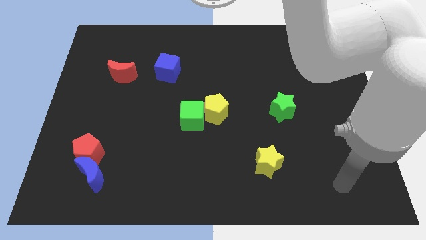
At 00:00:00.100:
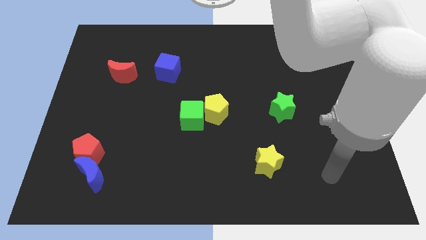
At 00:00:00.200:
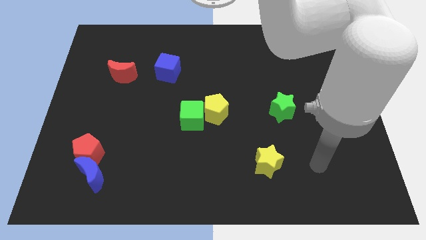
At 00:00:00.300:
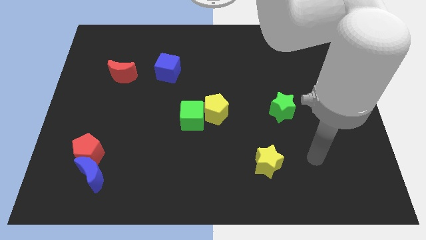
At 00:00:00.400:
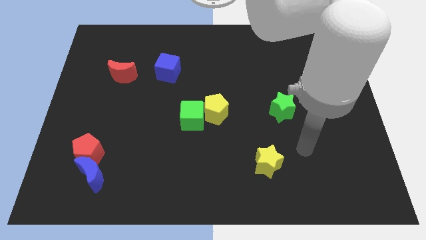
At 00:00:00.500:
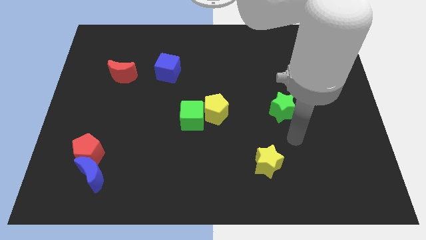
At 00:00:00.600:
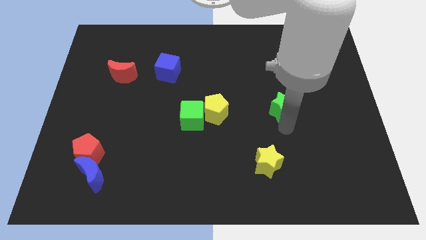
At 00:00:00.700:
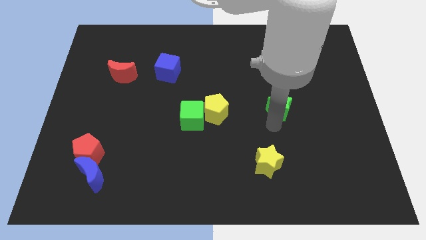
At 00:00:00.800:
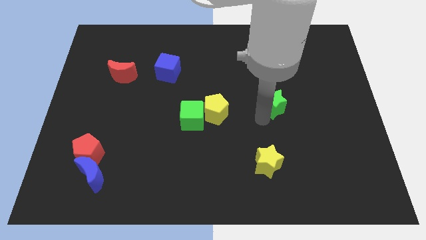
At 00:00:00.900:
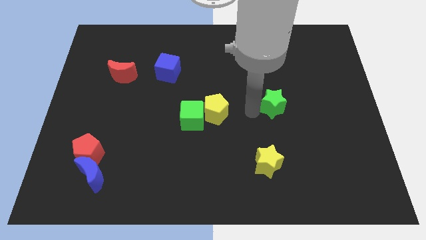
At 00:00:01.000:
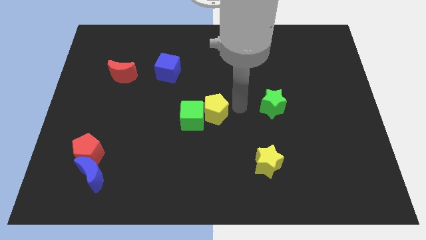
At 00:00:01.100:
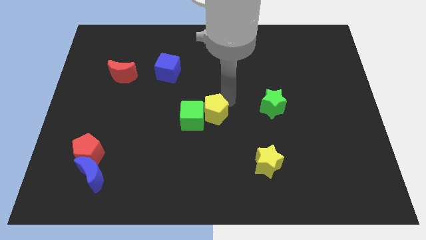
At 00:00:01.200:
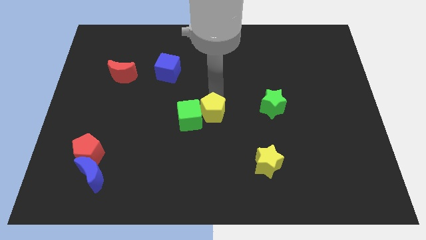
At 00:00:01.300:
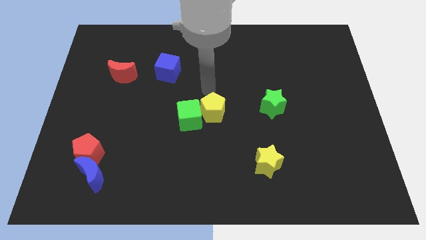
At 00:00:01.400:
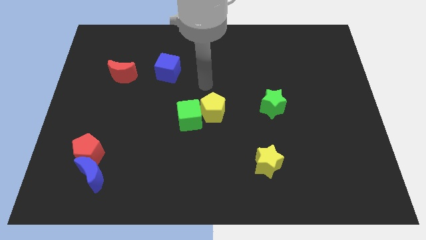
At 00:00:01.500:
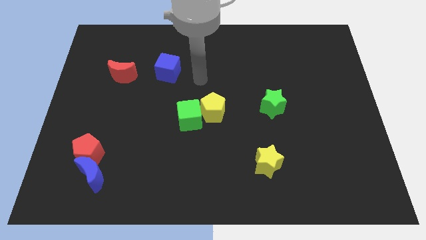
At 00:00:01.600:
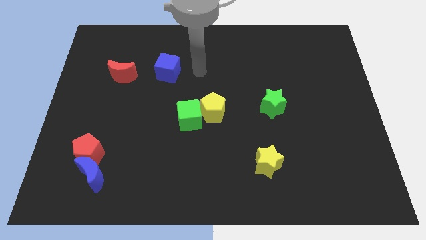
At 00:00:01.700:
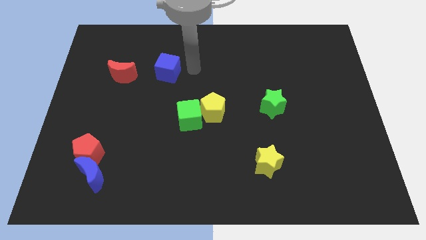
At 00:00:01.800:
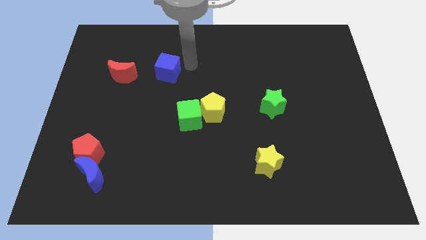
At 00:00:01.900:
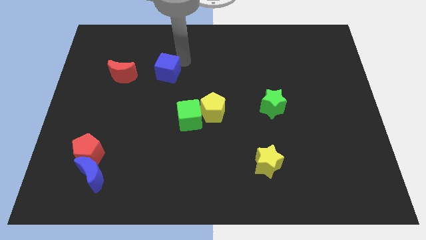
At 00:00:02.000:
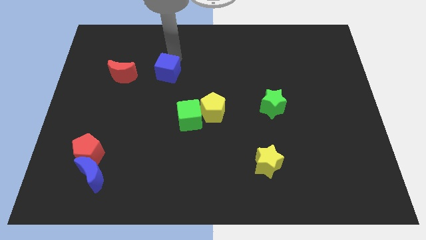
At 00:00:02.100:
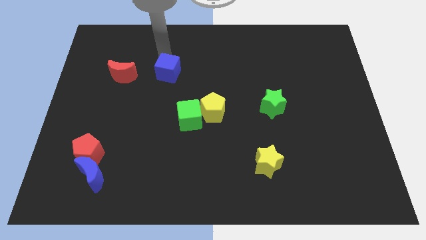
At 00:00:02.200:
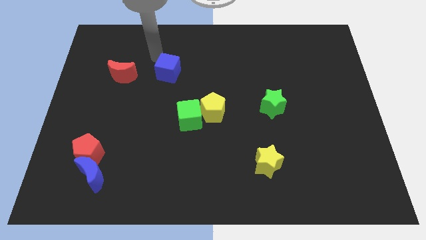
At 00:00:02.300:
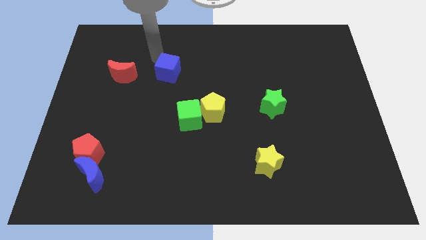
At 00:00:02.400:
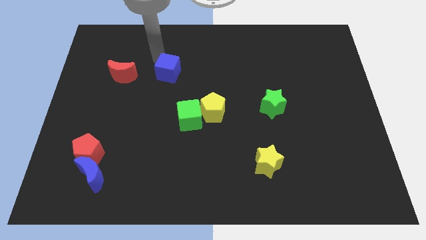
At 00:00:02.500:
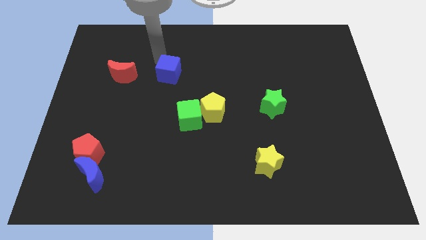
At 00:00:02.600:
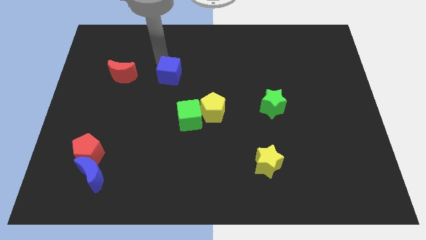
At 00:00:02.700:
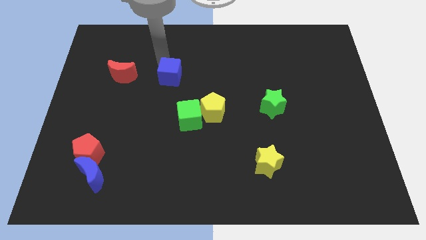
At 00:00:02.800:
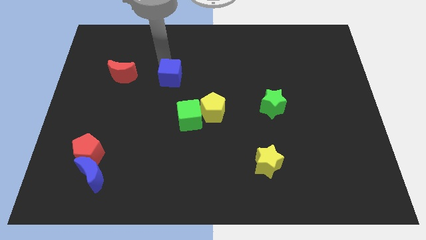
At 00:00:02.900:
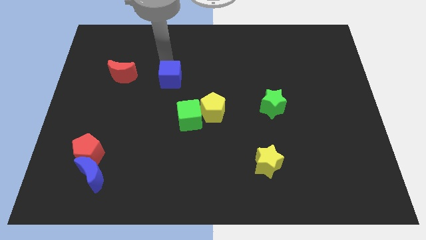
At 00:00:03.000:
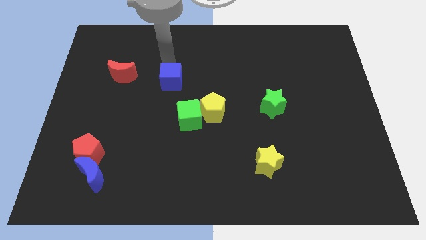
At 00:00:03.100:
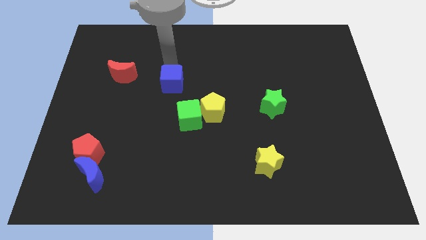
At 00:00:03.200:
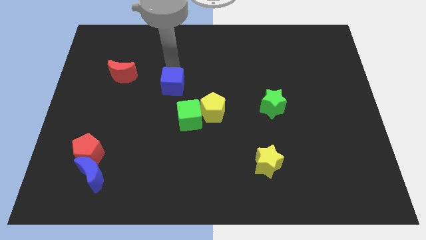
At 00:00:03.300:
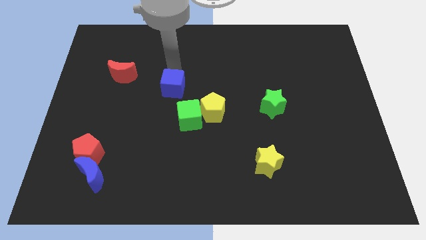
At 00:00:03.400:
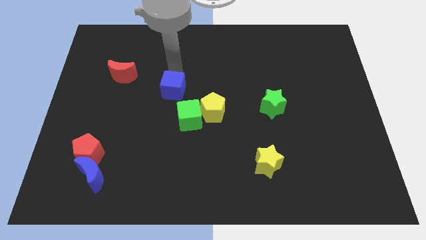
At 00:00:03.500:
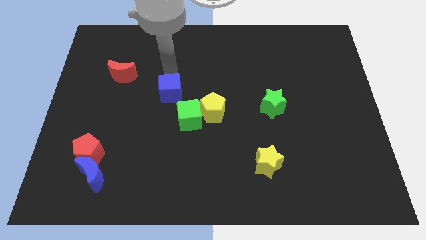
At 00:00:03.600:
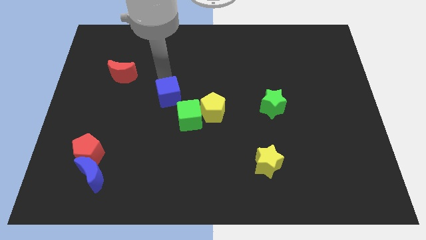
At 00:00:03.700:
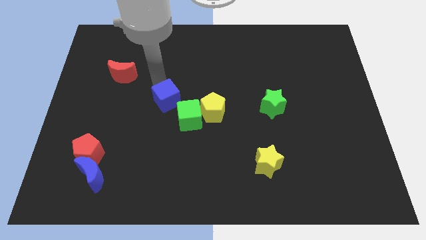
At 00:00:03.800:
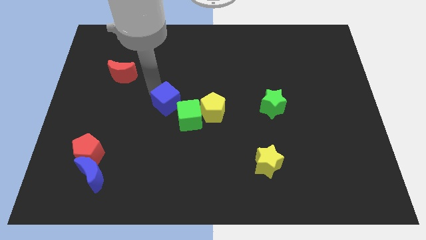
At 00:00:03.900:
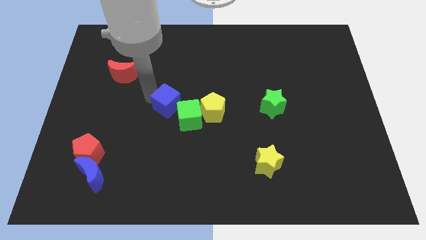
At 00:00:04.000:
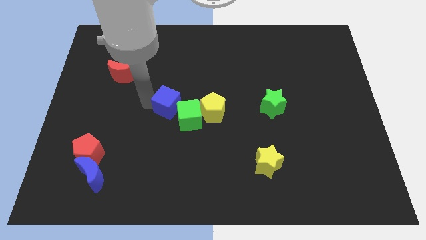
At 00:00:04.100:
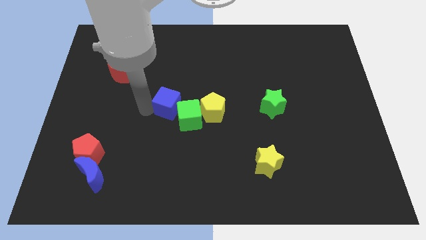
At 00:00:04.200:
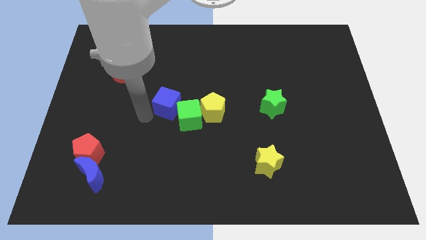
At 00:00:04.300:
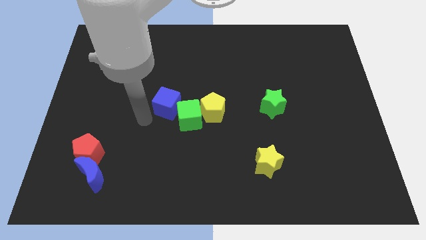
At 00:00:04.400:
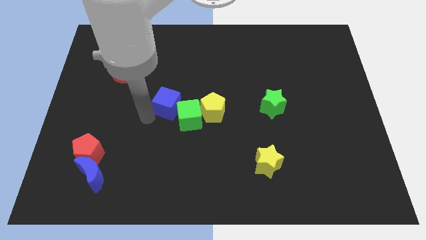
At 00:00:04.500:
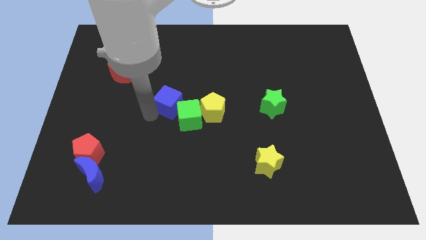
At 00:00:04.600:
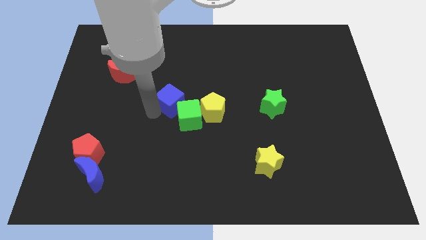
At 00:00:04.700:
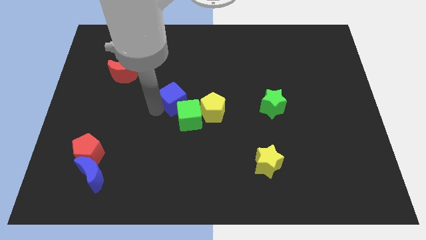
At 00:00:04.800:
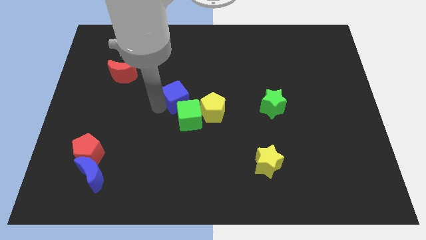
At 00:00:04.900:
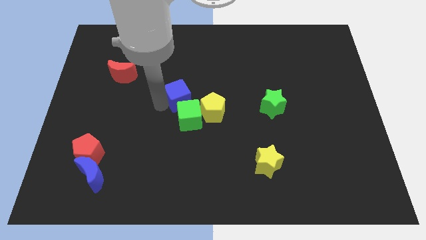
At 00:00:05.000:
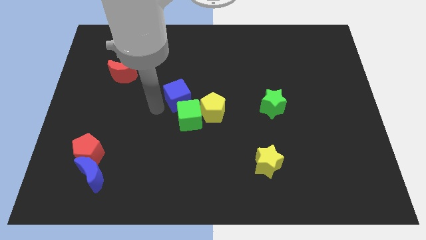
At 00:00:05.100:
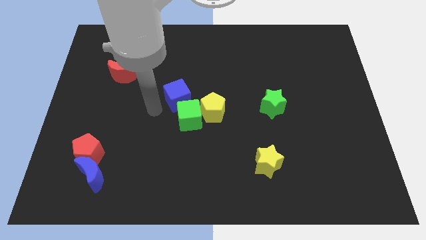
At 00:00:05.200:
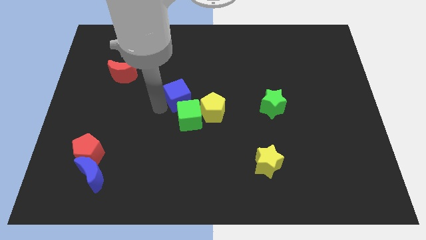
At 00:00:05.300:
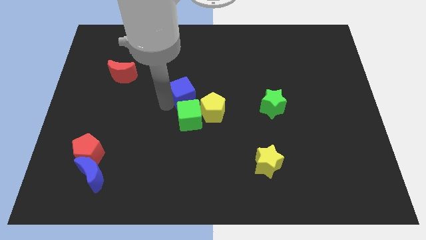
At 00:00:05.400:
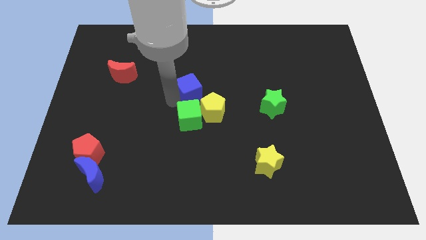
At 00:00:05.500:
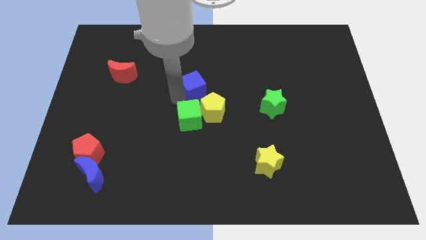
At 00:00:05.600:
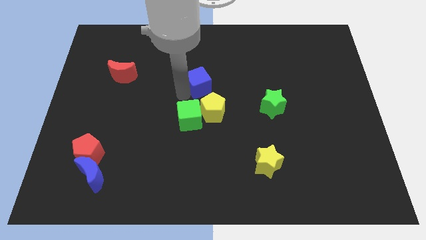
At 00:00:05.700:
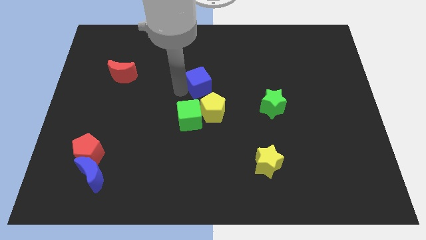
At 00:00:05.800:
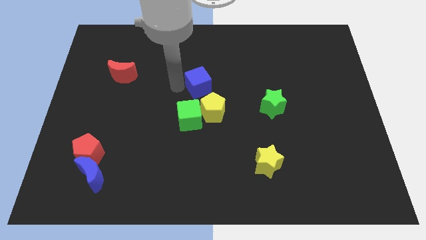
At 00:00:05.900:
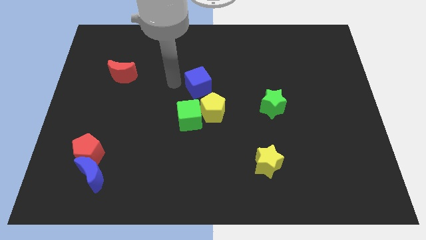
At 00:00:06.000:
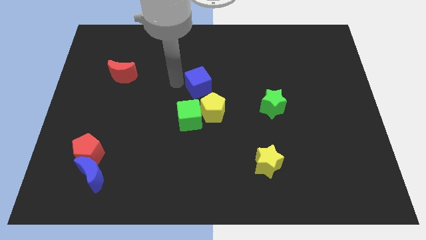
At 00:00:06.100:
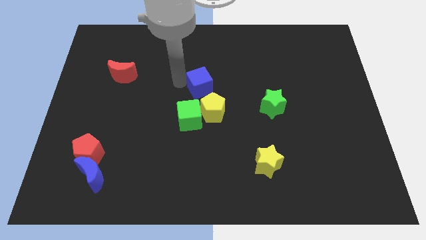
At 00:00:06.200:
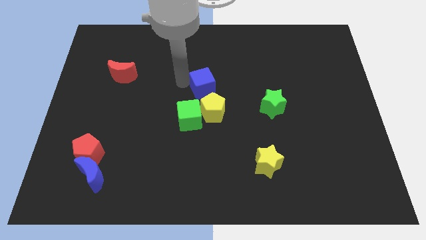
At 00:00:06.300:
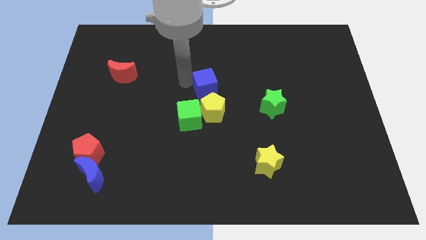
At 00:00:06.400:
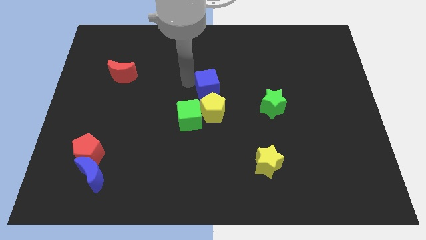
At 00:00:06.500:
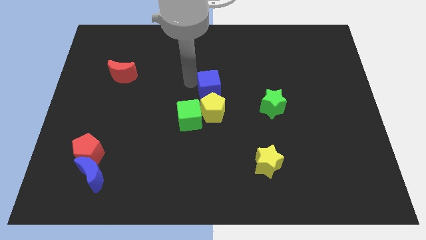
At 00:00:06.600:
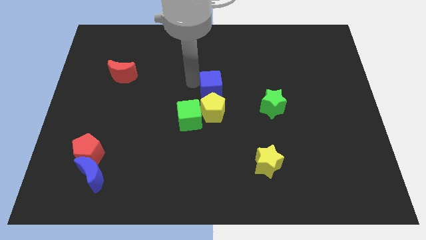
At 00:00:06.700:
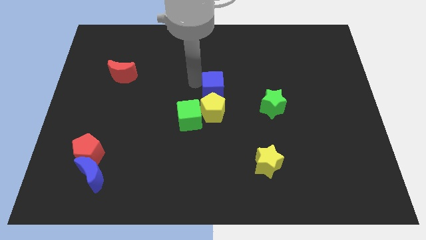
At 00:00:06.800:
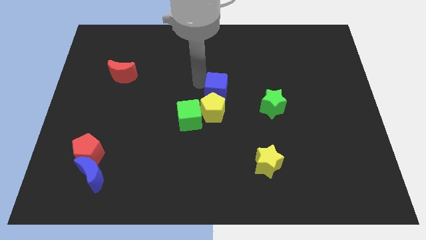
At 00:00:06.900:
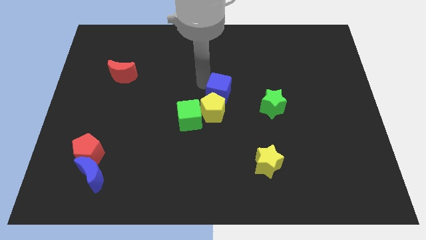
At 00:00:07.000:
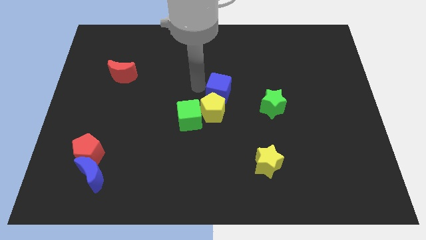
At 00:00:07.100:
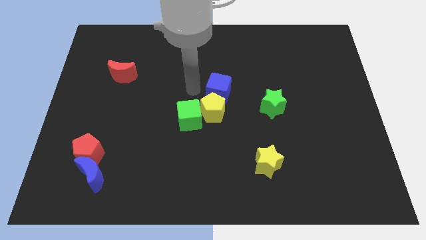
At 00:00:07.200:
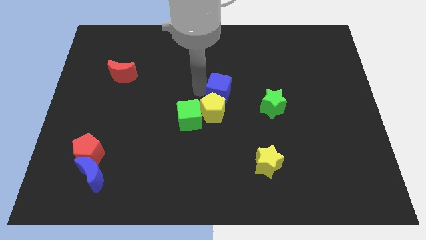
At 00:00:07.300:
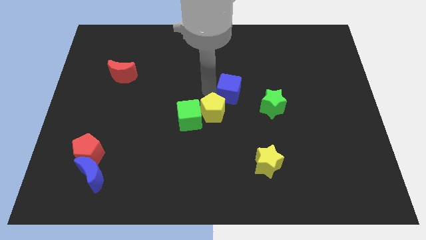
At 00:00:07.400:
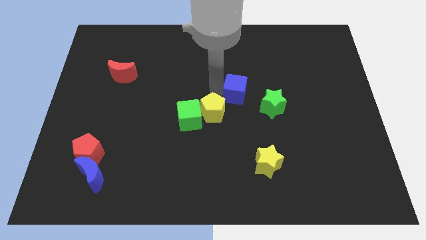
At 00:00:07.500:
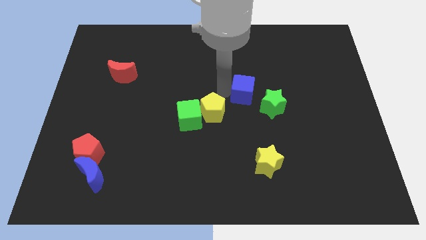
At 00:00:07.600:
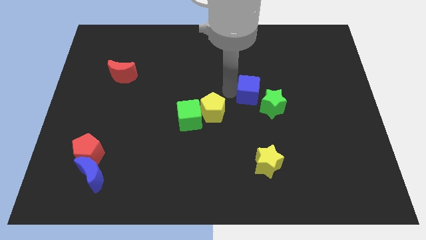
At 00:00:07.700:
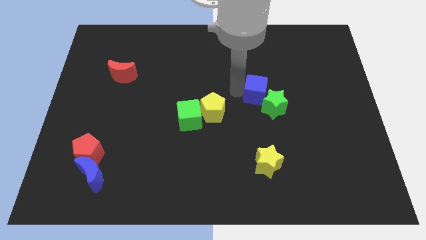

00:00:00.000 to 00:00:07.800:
slide the blue cube towards the green star
